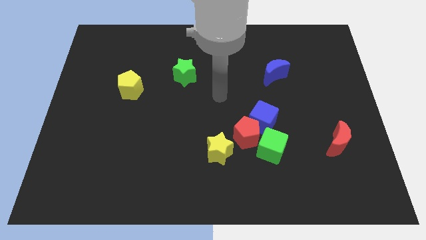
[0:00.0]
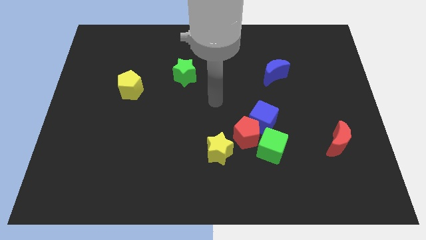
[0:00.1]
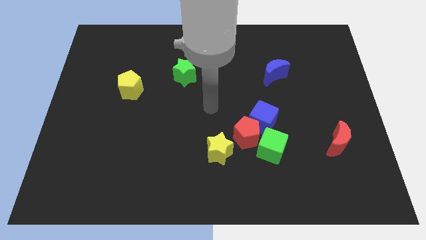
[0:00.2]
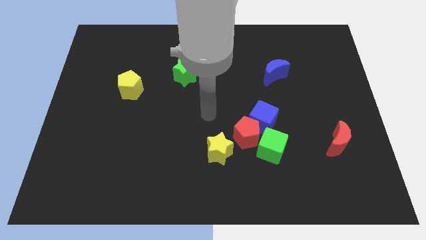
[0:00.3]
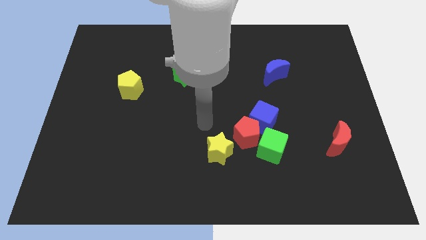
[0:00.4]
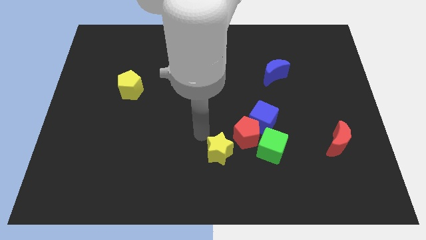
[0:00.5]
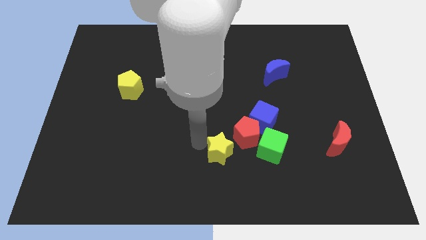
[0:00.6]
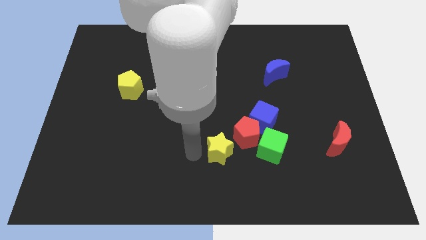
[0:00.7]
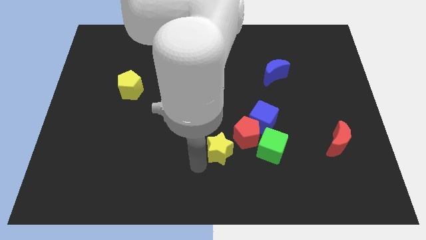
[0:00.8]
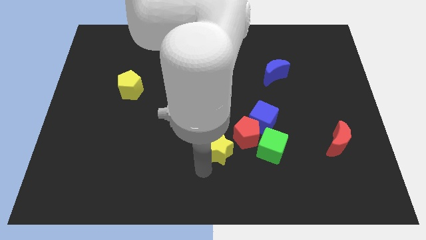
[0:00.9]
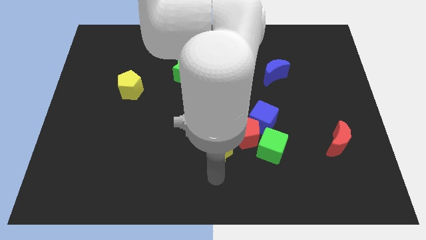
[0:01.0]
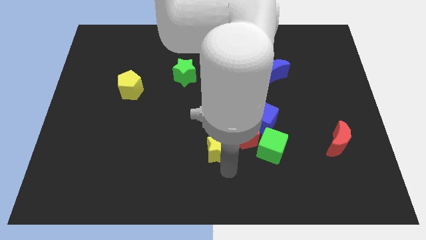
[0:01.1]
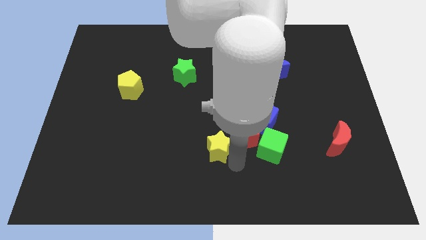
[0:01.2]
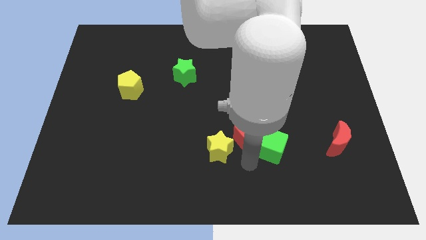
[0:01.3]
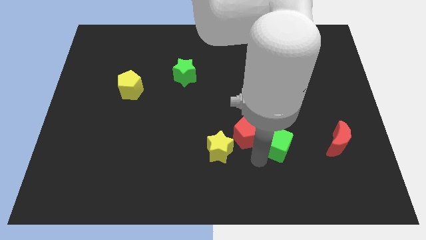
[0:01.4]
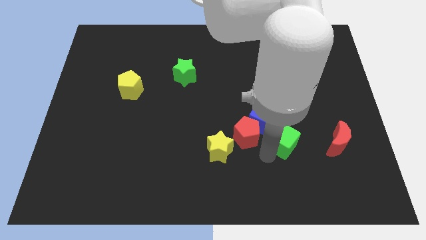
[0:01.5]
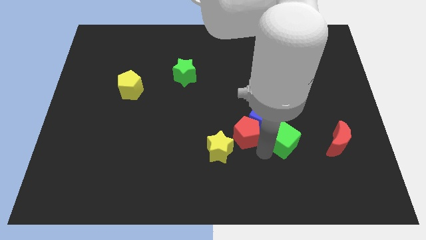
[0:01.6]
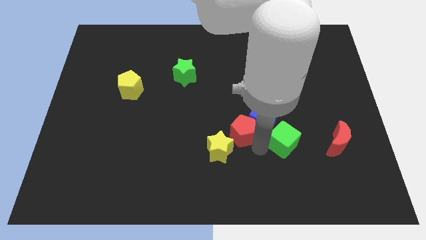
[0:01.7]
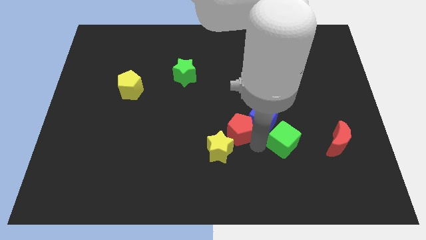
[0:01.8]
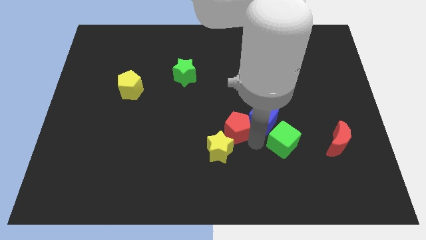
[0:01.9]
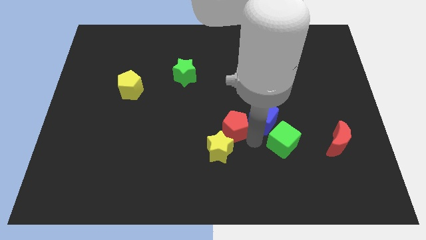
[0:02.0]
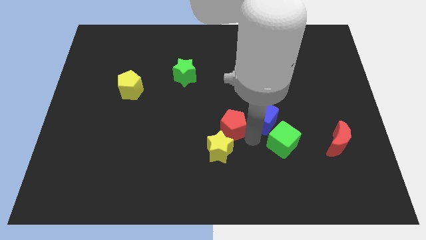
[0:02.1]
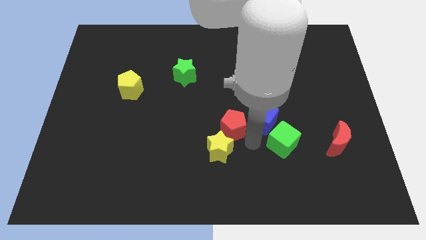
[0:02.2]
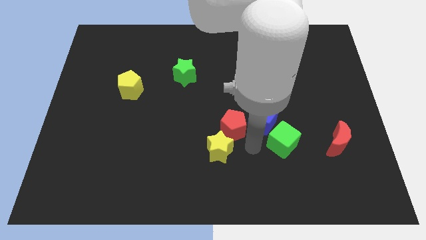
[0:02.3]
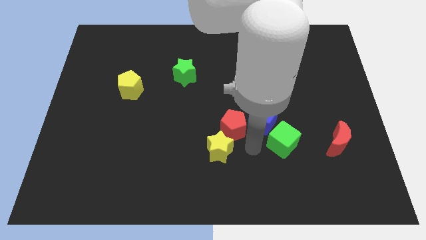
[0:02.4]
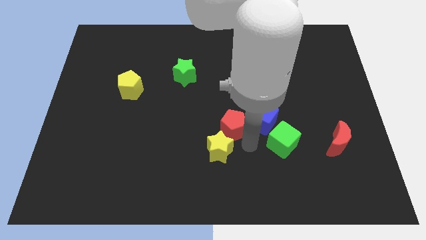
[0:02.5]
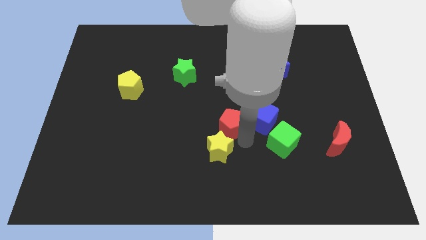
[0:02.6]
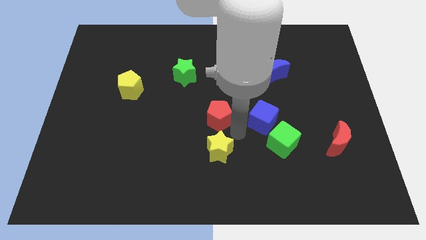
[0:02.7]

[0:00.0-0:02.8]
push the red pentagon upwards and to the left a little bit

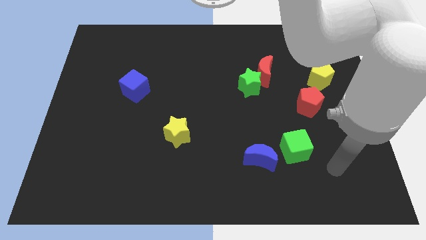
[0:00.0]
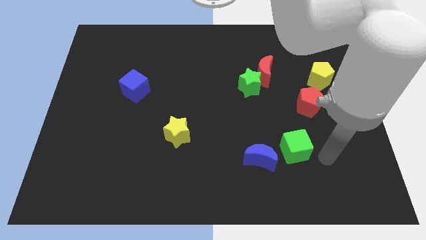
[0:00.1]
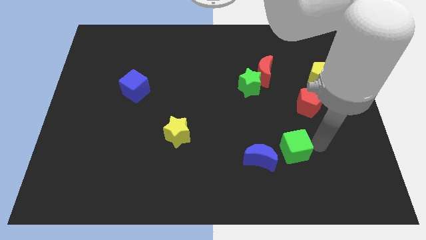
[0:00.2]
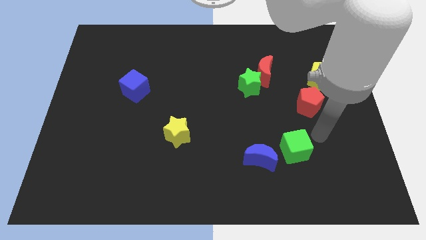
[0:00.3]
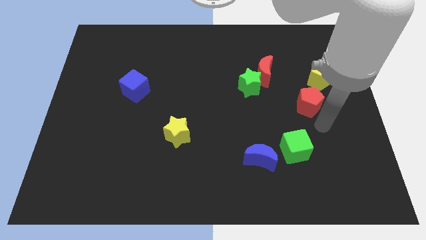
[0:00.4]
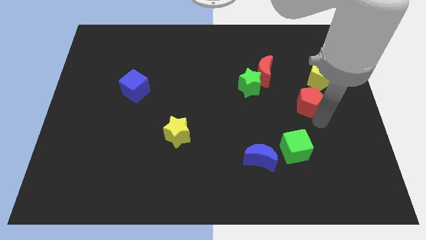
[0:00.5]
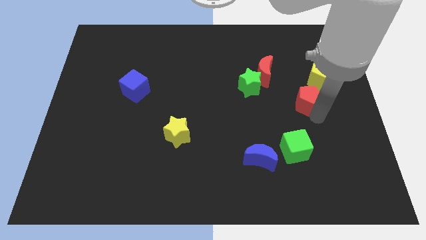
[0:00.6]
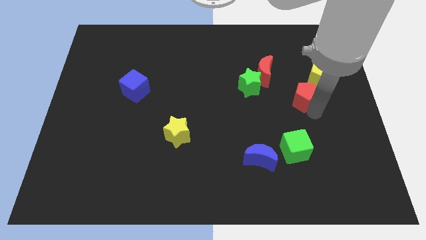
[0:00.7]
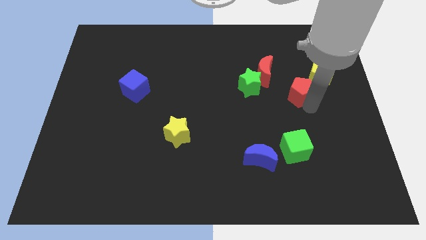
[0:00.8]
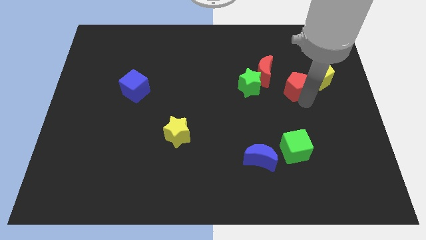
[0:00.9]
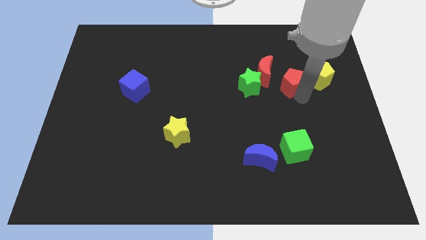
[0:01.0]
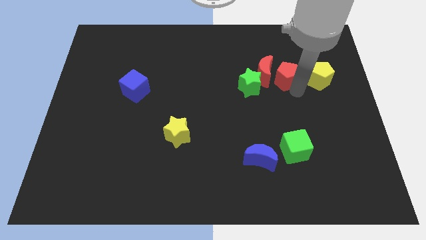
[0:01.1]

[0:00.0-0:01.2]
slide the red pentagon a little bit up and then left

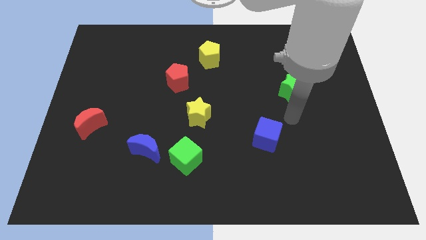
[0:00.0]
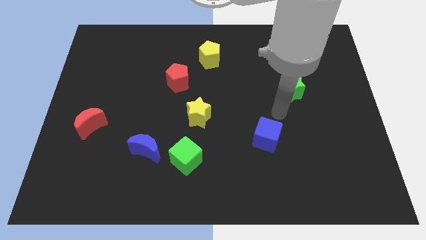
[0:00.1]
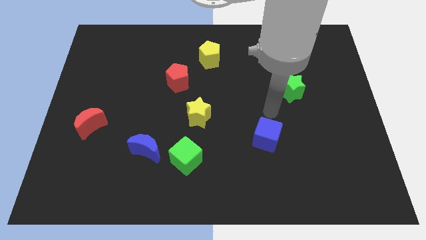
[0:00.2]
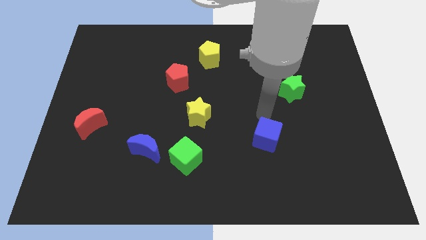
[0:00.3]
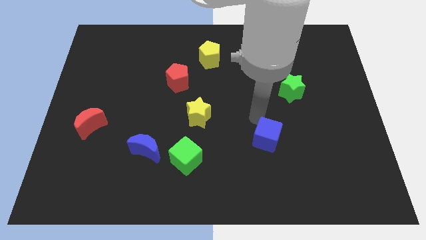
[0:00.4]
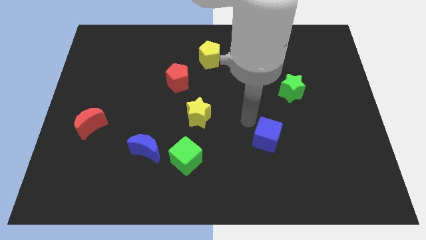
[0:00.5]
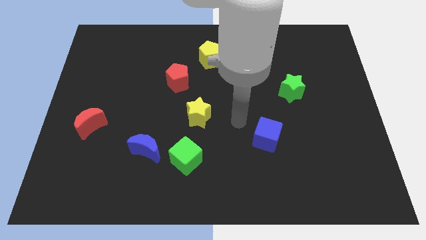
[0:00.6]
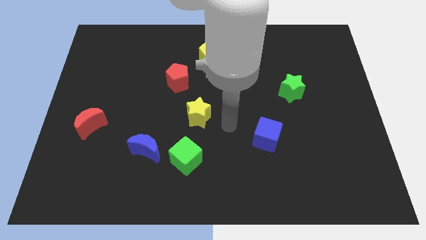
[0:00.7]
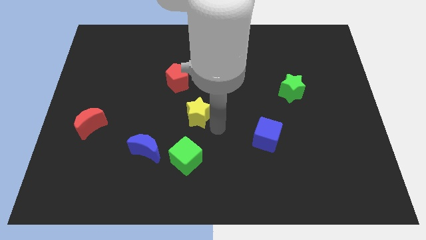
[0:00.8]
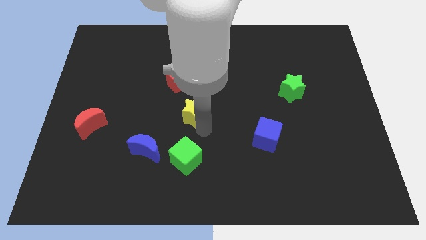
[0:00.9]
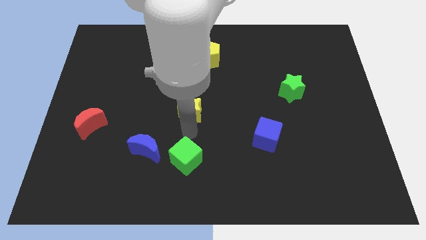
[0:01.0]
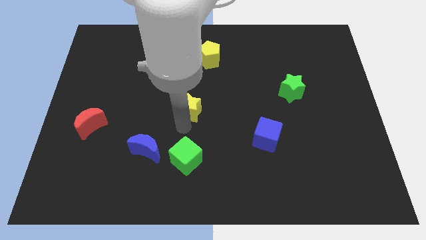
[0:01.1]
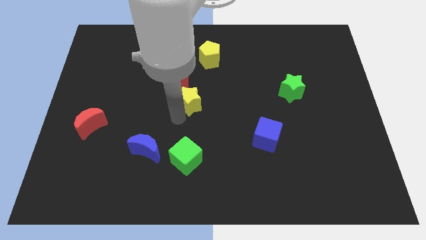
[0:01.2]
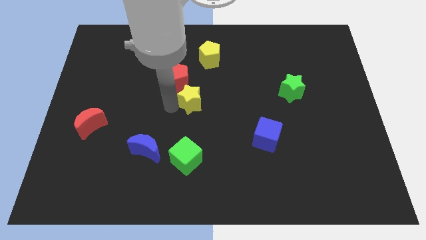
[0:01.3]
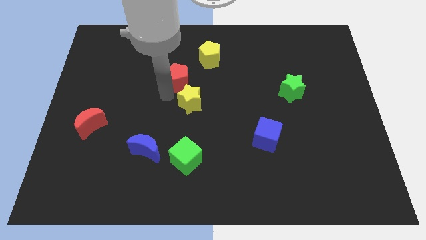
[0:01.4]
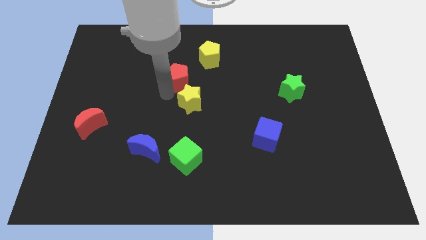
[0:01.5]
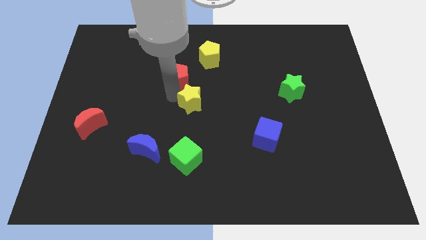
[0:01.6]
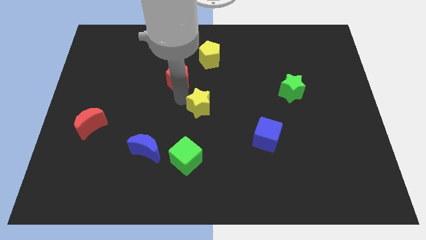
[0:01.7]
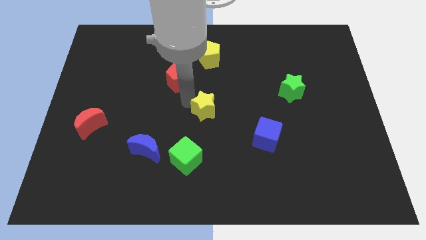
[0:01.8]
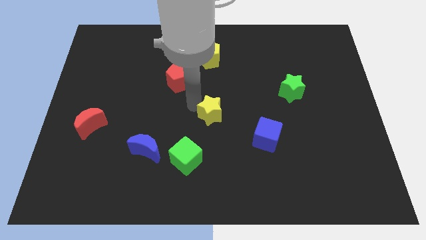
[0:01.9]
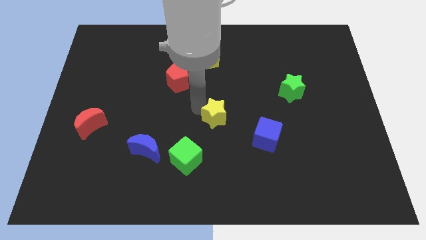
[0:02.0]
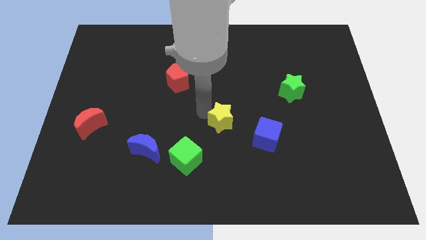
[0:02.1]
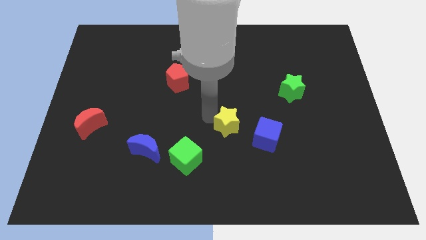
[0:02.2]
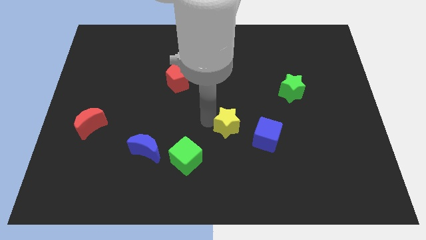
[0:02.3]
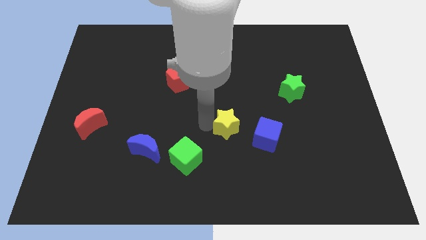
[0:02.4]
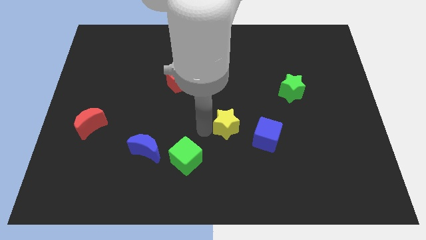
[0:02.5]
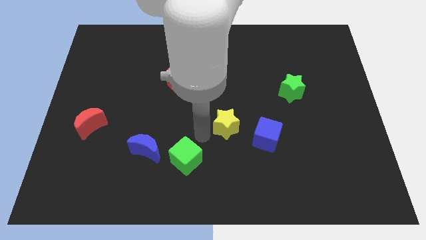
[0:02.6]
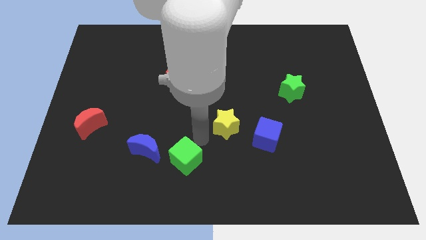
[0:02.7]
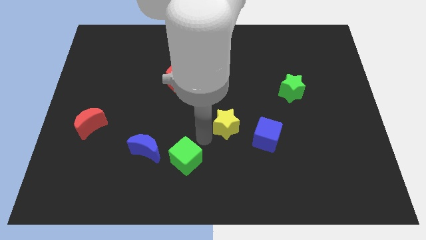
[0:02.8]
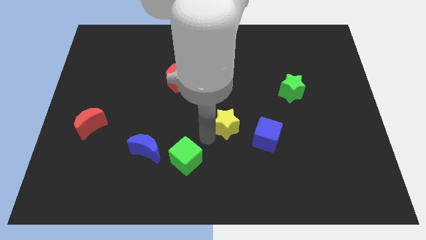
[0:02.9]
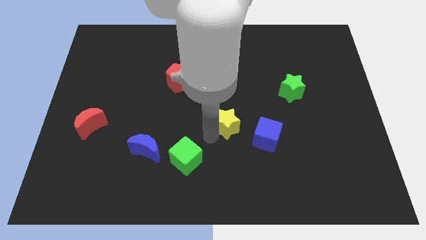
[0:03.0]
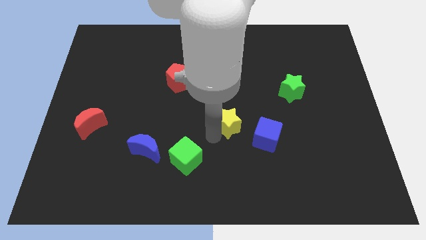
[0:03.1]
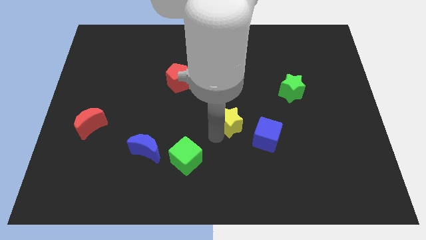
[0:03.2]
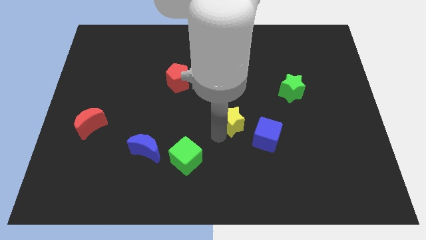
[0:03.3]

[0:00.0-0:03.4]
slide the yellow star slightly to the right

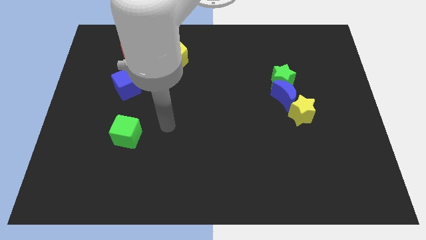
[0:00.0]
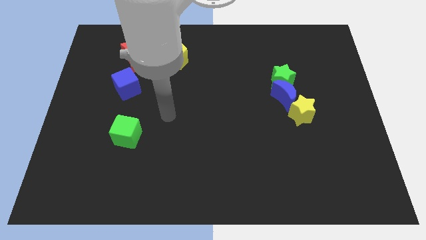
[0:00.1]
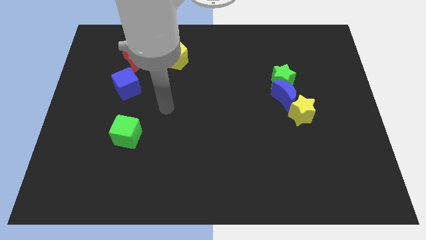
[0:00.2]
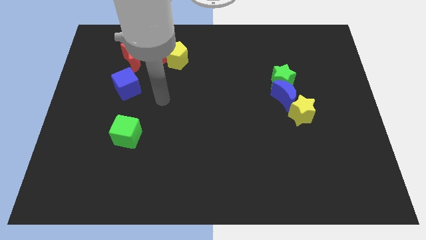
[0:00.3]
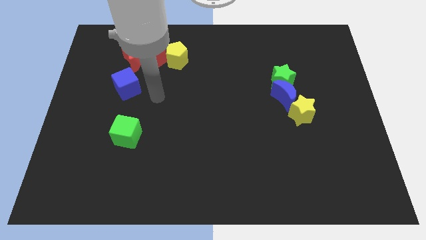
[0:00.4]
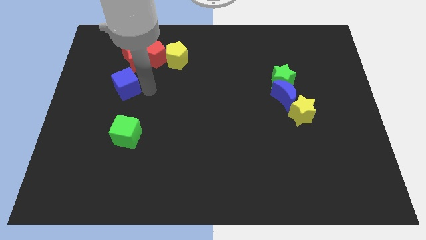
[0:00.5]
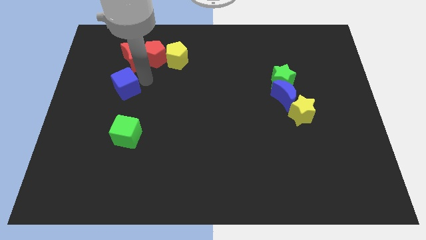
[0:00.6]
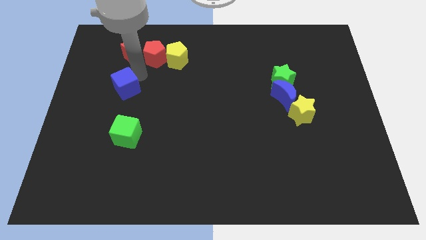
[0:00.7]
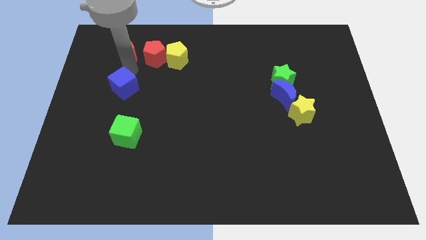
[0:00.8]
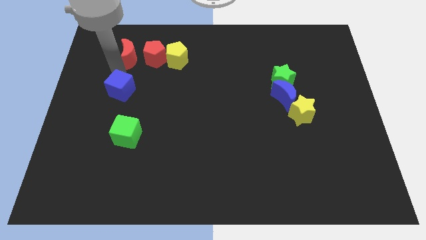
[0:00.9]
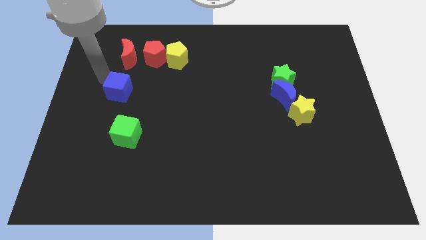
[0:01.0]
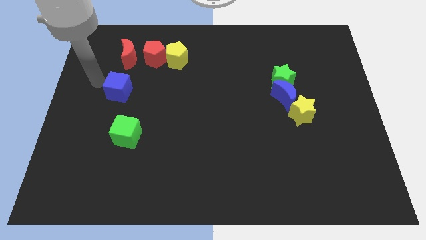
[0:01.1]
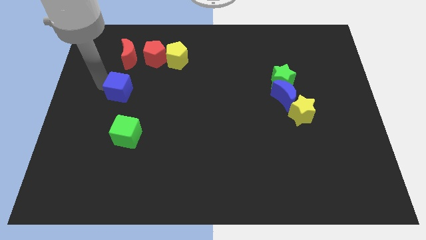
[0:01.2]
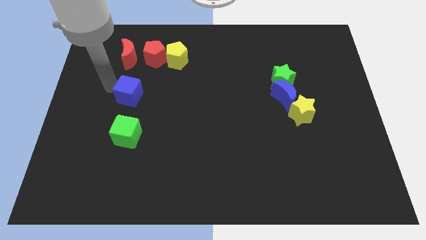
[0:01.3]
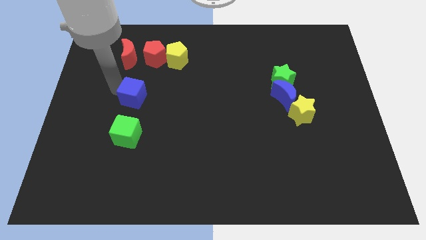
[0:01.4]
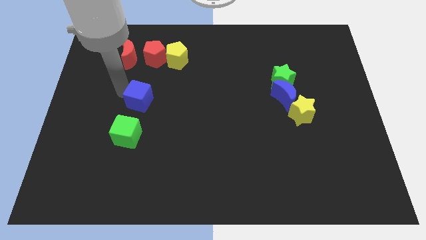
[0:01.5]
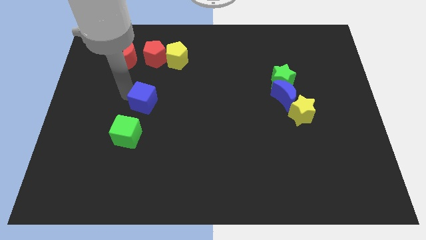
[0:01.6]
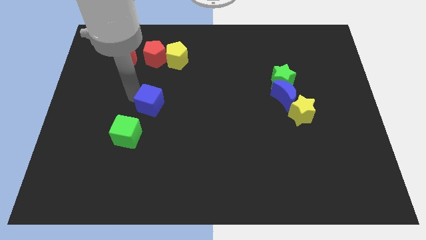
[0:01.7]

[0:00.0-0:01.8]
move the blue cube downwards and right diagonally a bit
